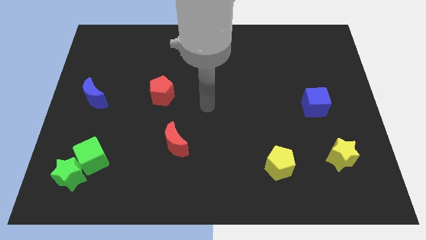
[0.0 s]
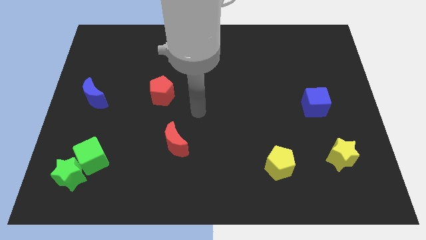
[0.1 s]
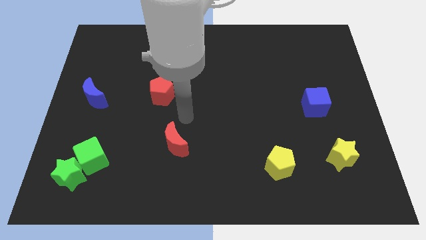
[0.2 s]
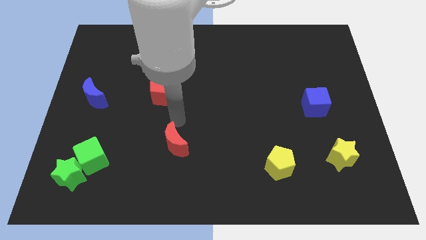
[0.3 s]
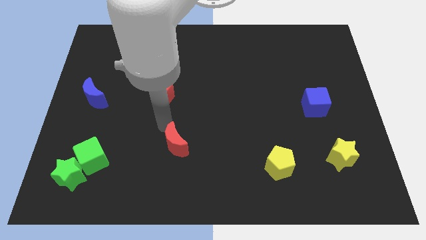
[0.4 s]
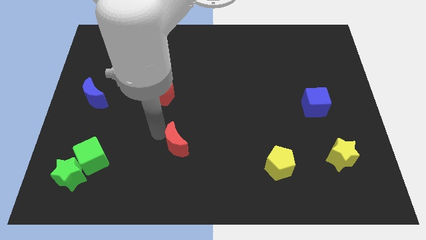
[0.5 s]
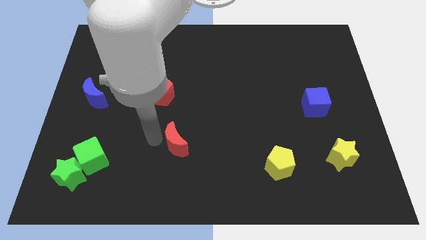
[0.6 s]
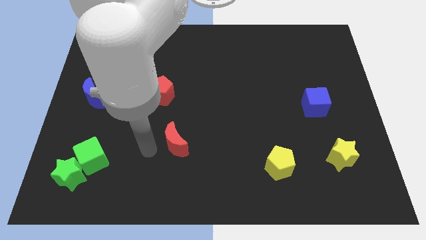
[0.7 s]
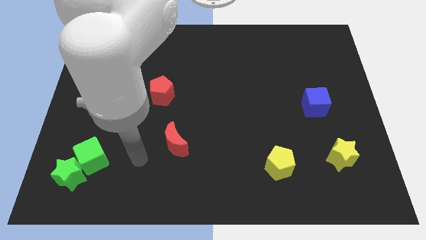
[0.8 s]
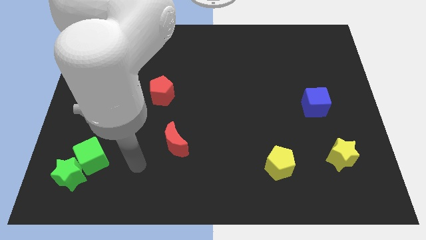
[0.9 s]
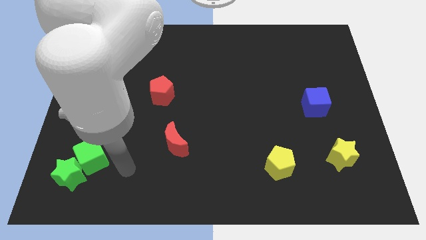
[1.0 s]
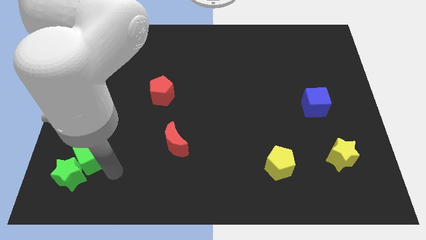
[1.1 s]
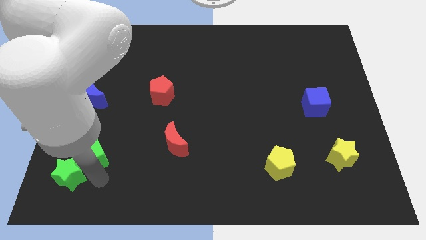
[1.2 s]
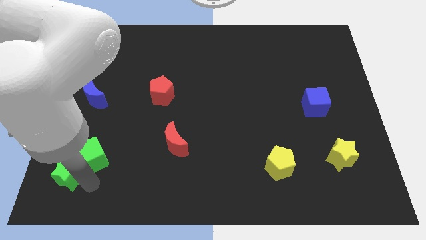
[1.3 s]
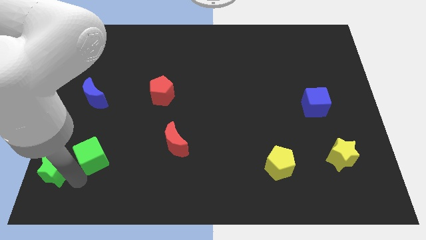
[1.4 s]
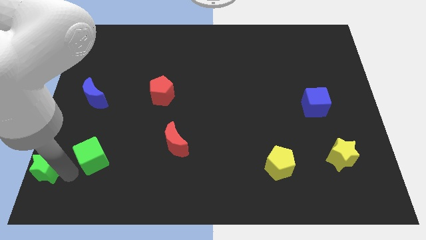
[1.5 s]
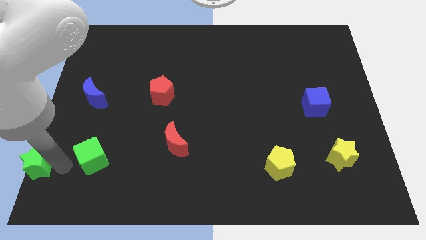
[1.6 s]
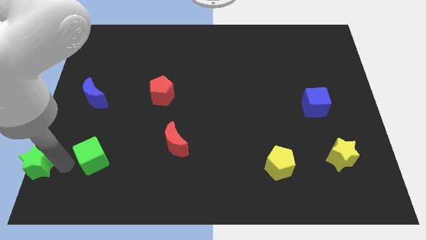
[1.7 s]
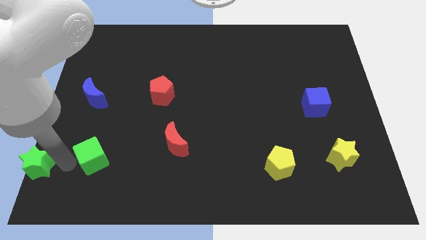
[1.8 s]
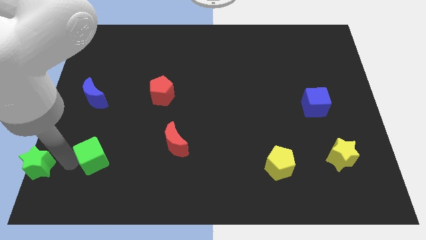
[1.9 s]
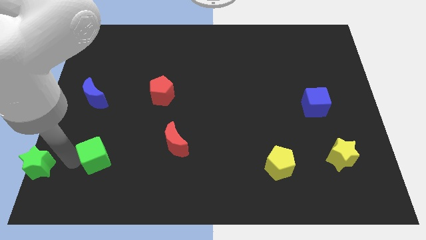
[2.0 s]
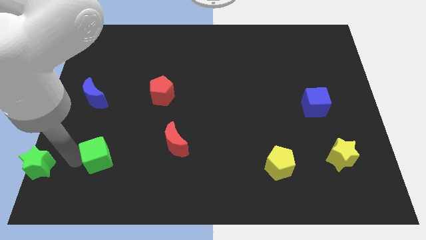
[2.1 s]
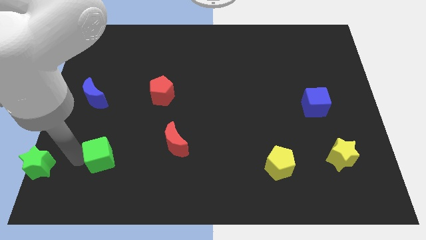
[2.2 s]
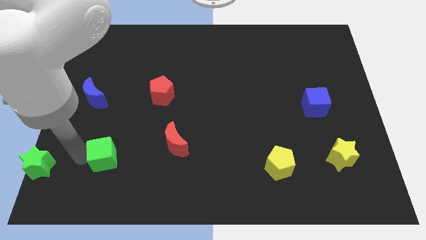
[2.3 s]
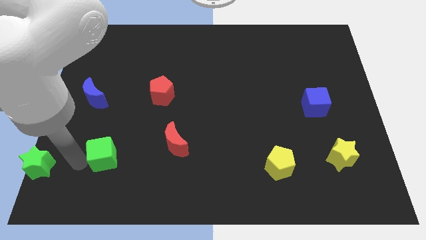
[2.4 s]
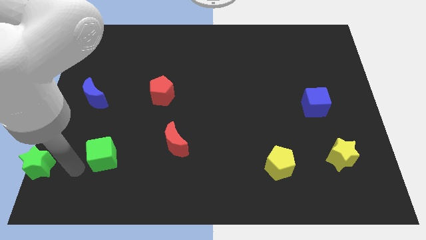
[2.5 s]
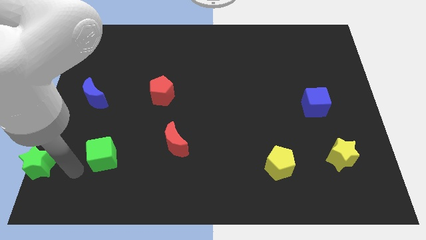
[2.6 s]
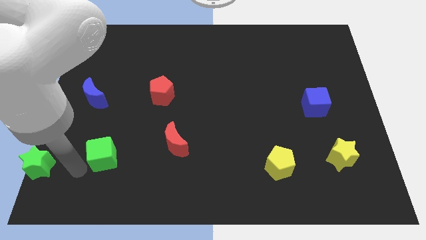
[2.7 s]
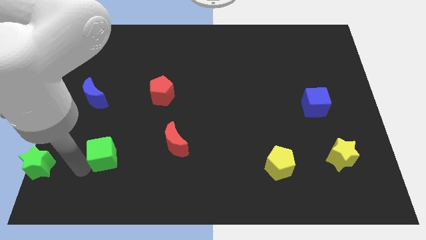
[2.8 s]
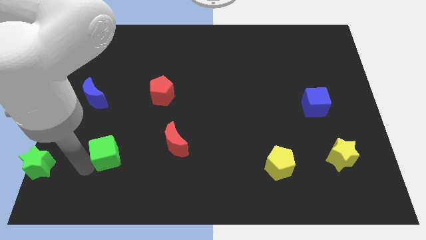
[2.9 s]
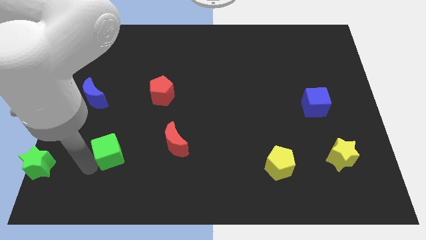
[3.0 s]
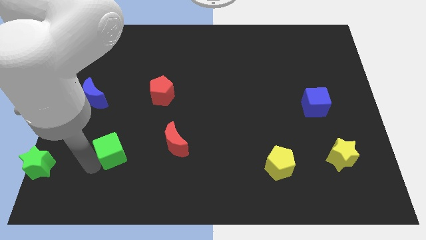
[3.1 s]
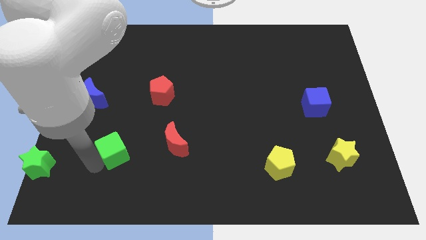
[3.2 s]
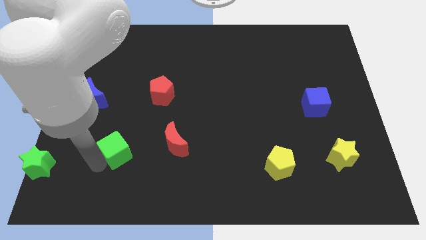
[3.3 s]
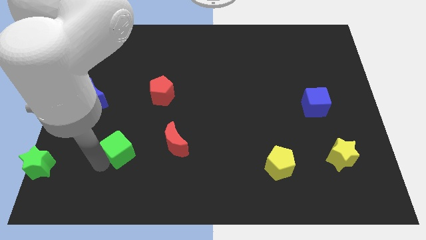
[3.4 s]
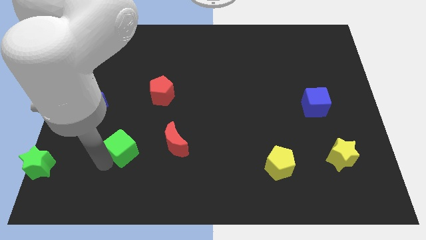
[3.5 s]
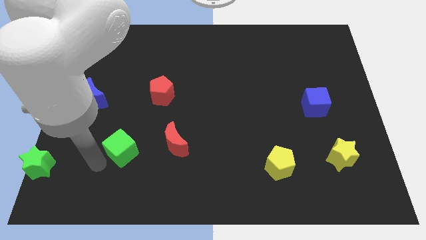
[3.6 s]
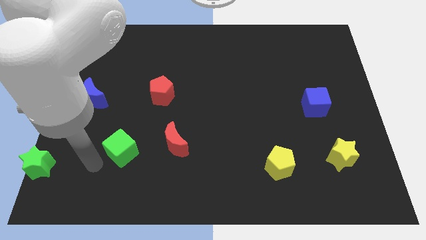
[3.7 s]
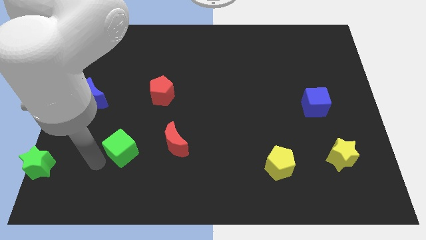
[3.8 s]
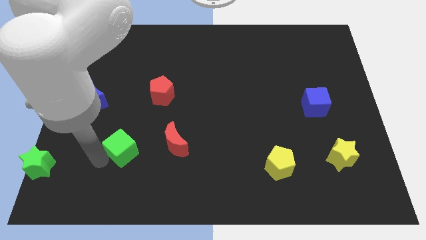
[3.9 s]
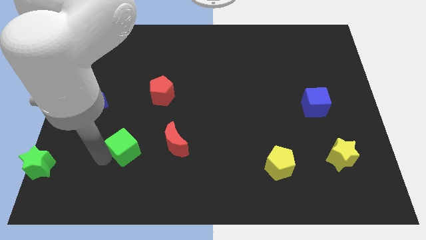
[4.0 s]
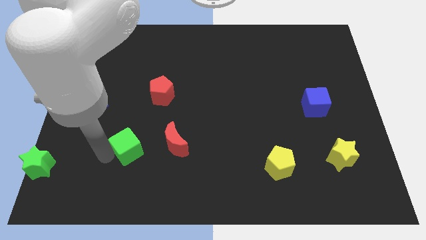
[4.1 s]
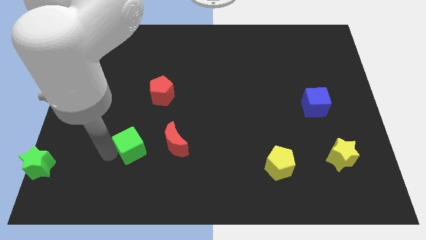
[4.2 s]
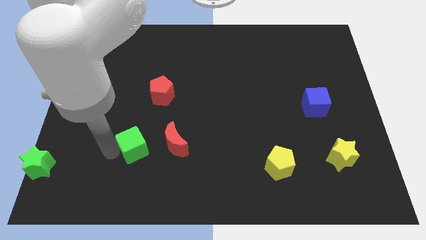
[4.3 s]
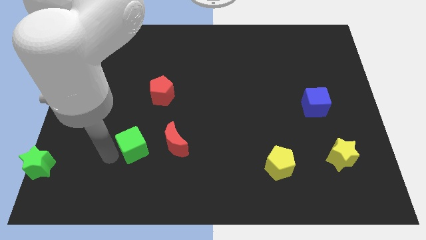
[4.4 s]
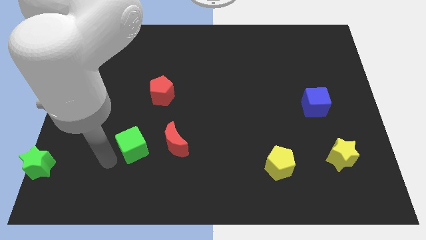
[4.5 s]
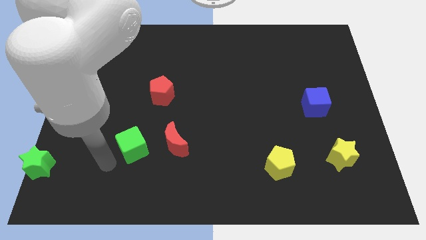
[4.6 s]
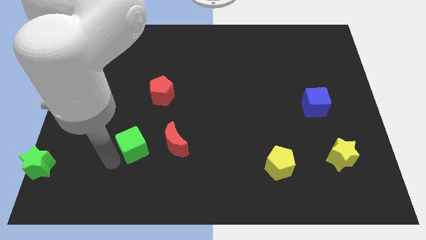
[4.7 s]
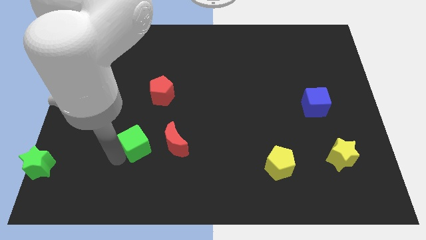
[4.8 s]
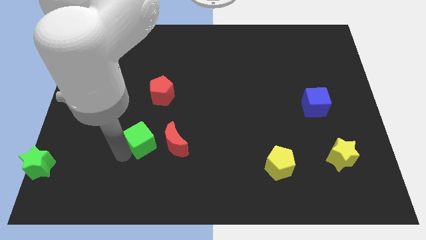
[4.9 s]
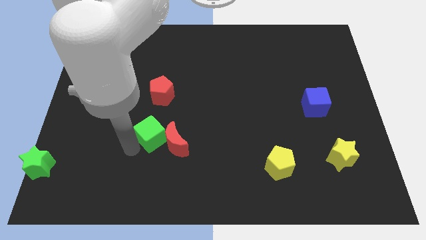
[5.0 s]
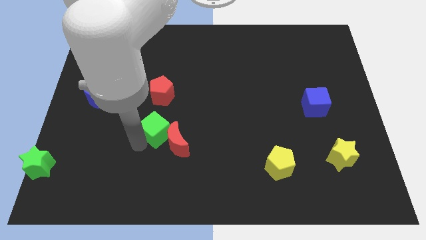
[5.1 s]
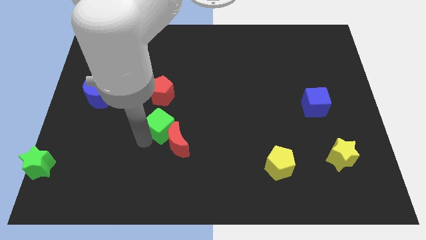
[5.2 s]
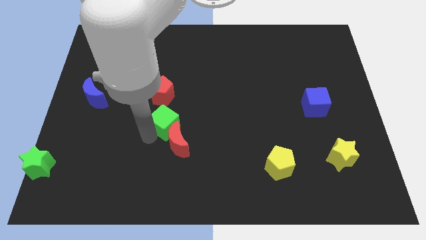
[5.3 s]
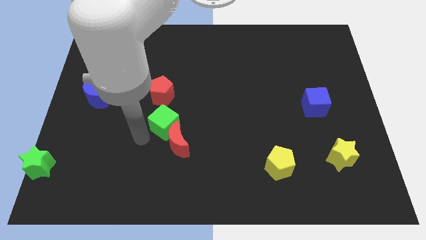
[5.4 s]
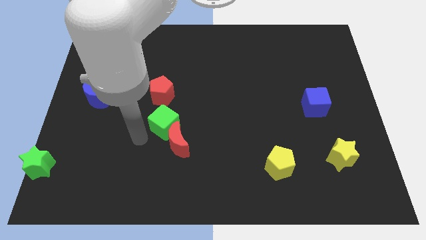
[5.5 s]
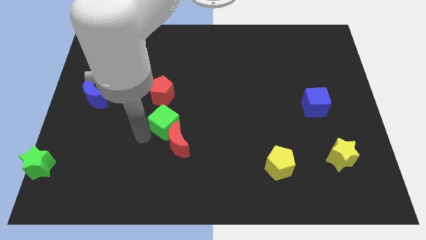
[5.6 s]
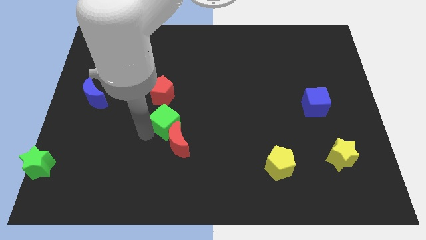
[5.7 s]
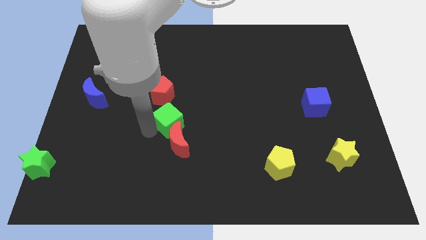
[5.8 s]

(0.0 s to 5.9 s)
move the green cube to the center of the board
